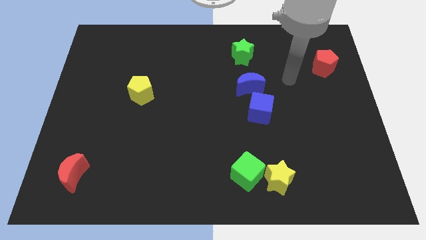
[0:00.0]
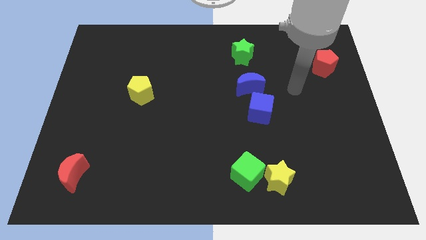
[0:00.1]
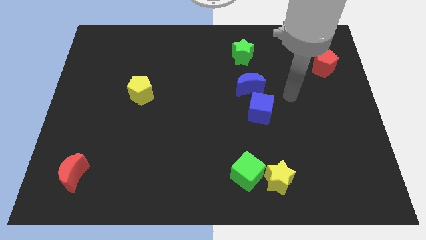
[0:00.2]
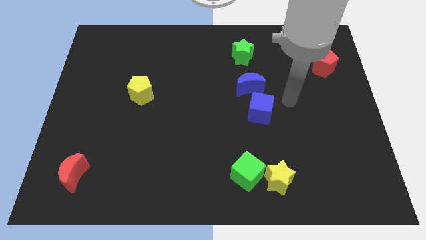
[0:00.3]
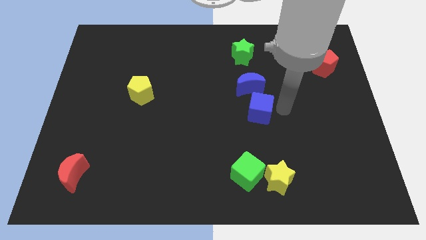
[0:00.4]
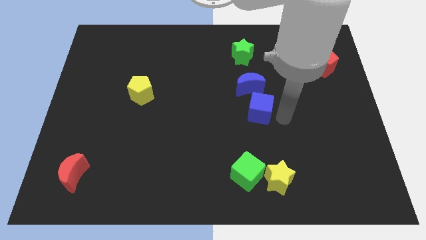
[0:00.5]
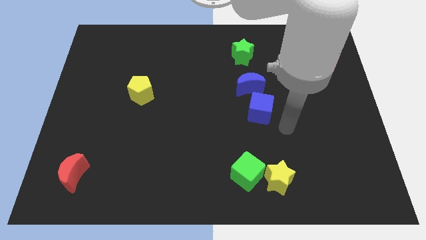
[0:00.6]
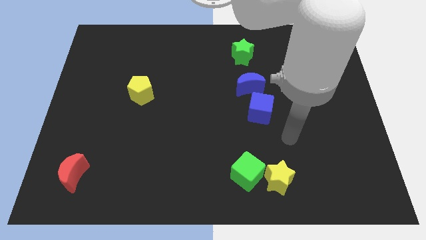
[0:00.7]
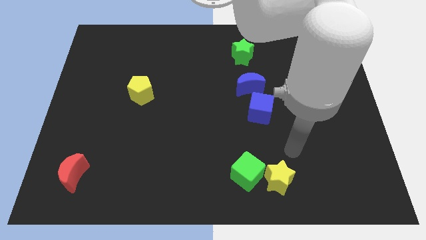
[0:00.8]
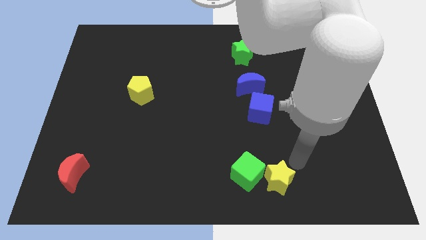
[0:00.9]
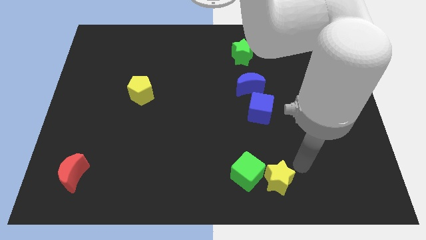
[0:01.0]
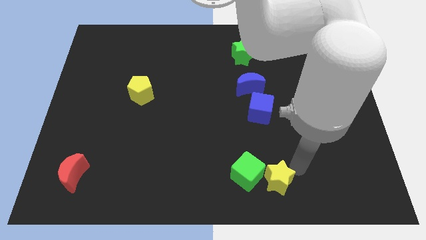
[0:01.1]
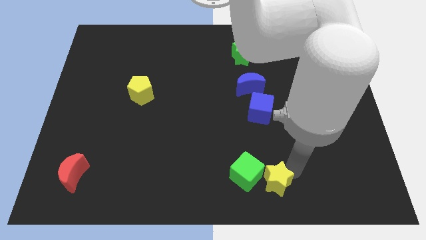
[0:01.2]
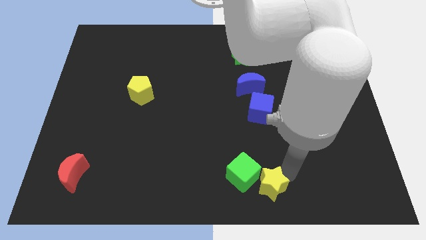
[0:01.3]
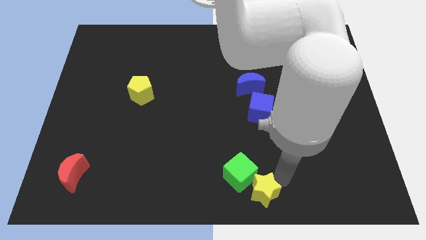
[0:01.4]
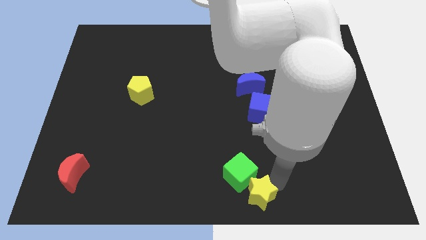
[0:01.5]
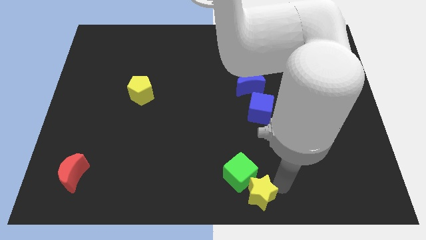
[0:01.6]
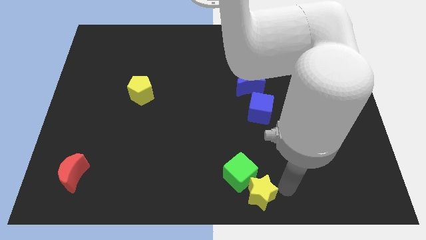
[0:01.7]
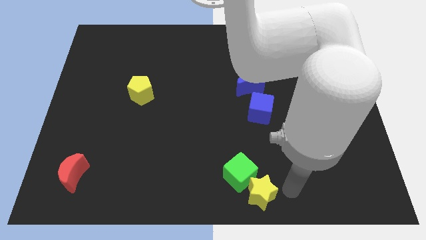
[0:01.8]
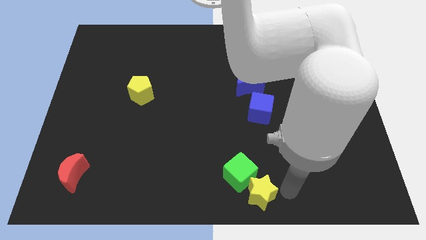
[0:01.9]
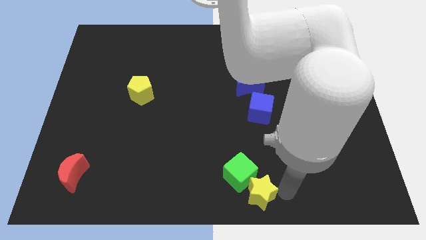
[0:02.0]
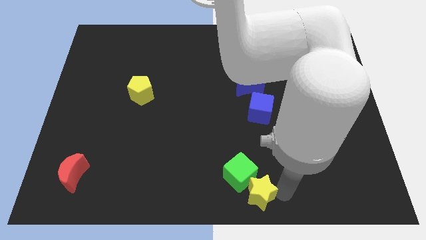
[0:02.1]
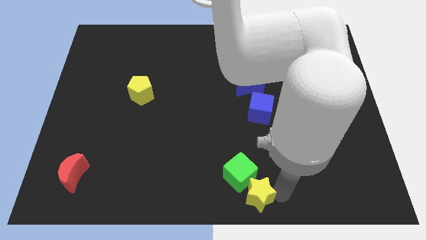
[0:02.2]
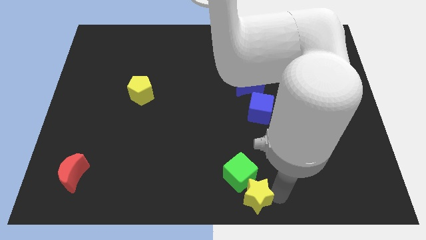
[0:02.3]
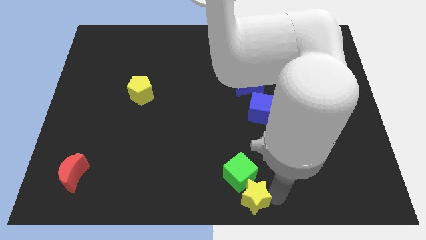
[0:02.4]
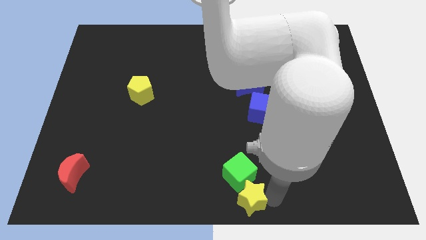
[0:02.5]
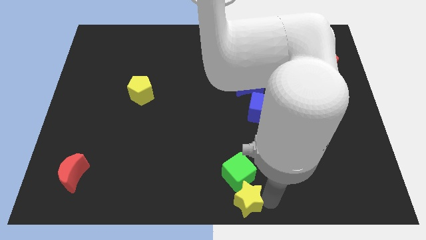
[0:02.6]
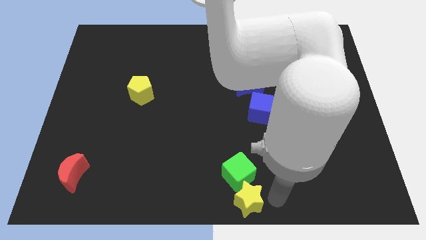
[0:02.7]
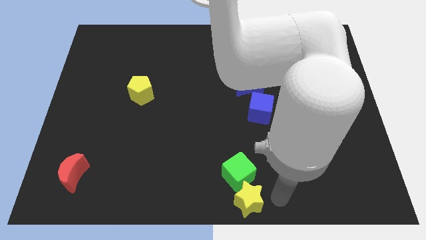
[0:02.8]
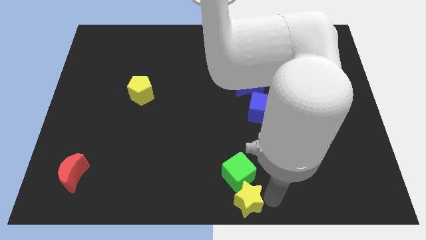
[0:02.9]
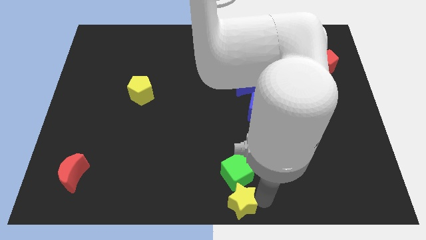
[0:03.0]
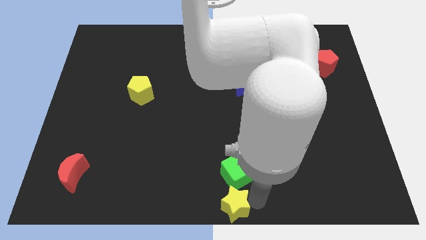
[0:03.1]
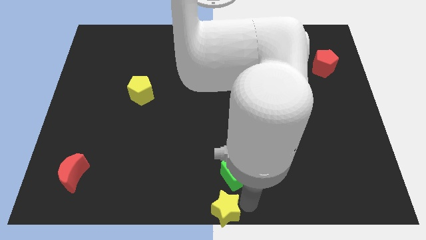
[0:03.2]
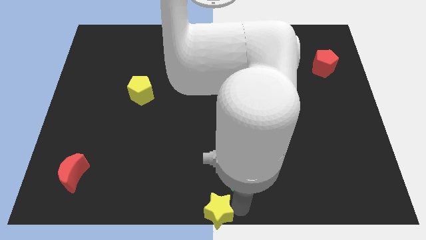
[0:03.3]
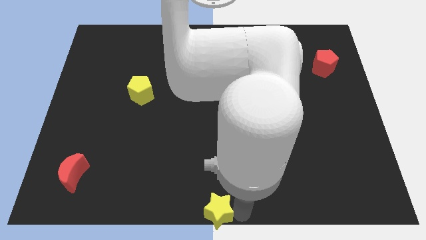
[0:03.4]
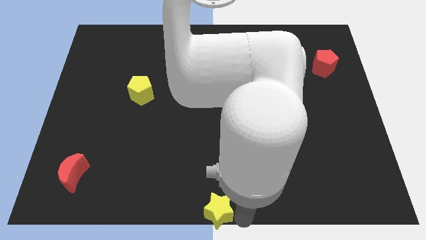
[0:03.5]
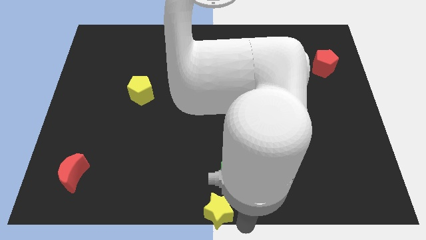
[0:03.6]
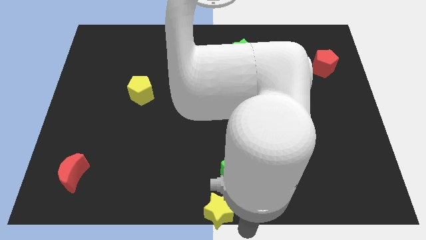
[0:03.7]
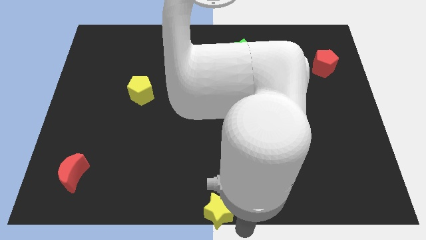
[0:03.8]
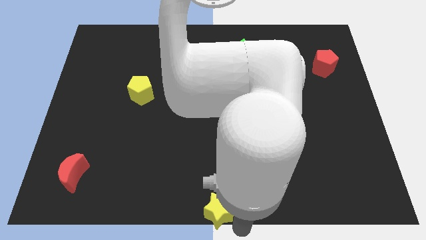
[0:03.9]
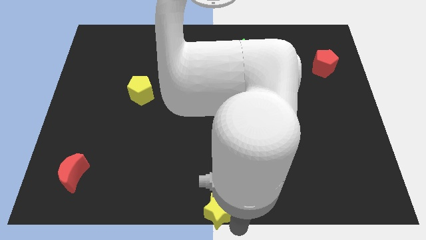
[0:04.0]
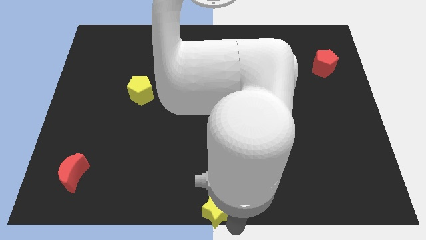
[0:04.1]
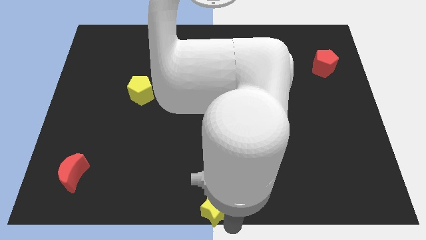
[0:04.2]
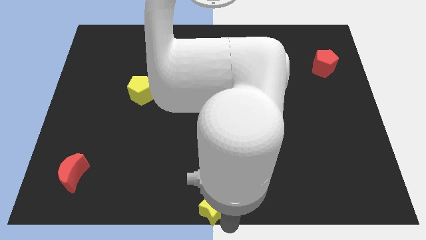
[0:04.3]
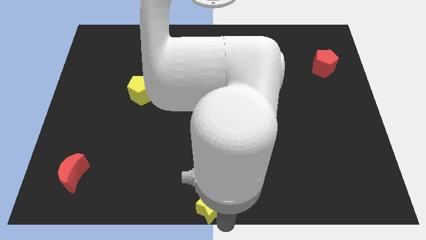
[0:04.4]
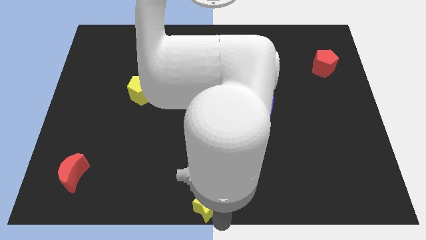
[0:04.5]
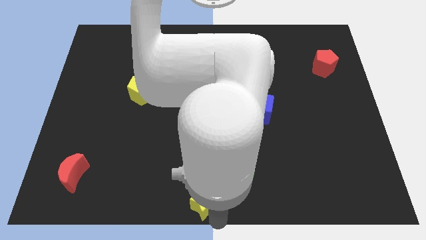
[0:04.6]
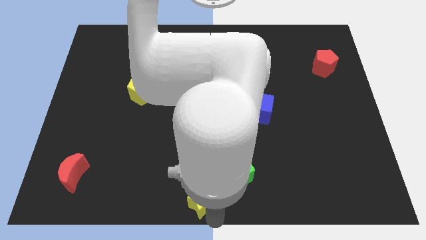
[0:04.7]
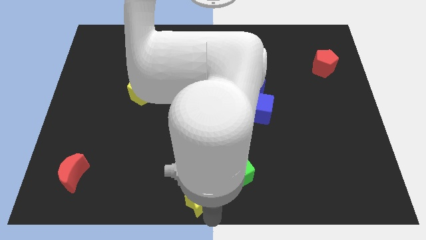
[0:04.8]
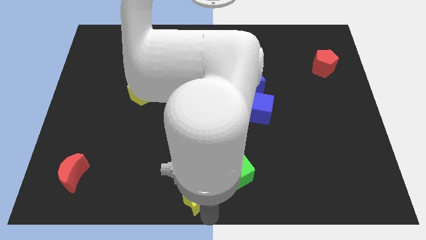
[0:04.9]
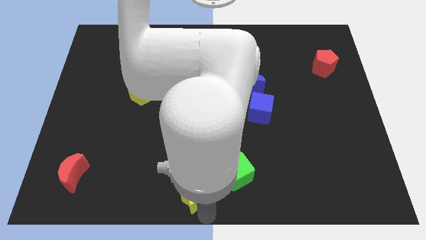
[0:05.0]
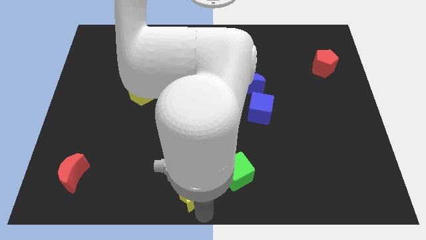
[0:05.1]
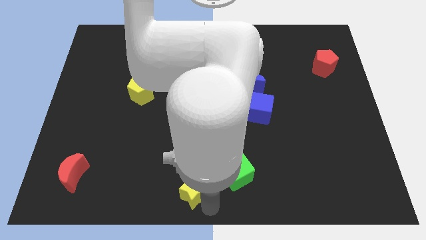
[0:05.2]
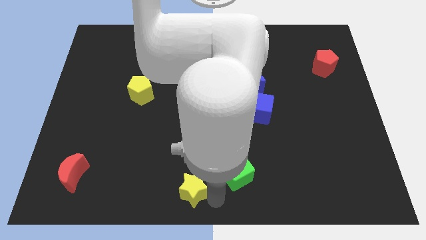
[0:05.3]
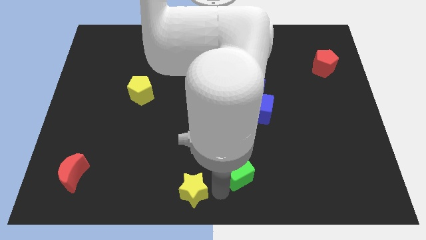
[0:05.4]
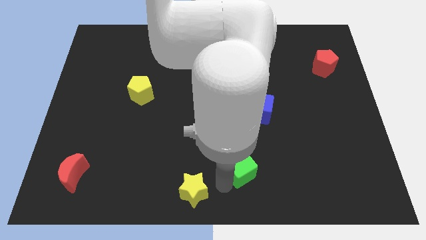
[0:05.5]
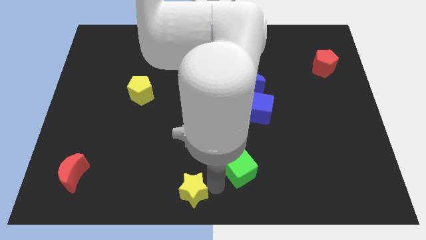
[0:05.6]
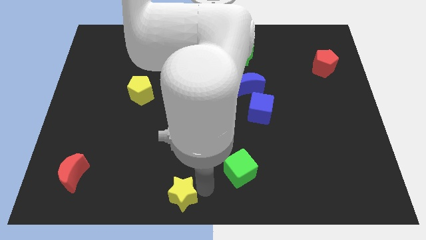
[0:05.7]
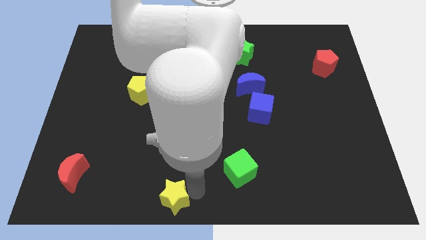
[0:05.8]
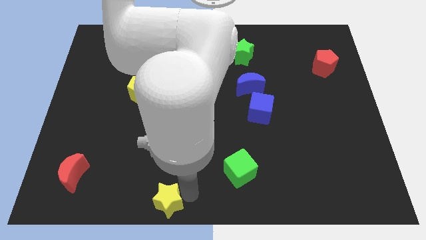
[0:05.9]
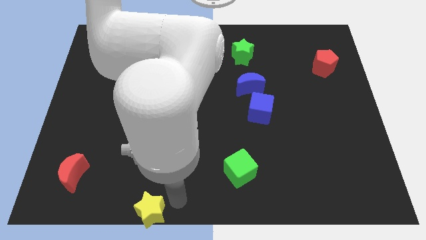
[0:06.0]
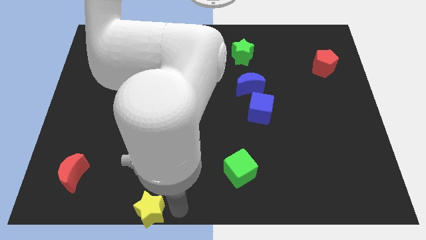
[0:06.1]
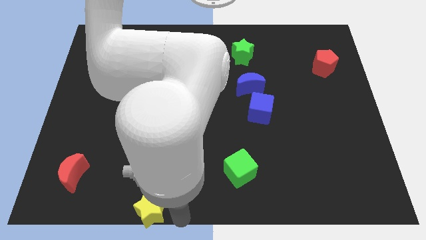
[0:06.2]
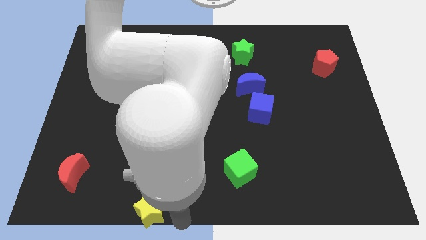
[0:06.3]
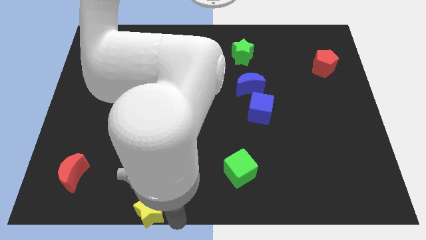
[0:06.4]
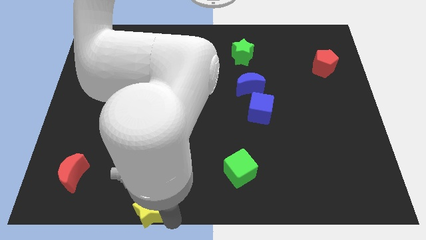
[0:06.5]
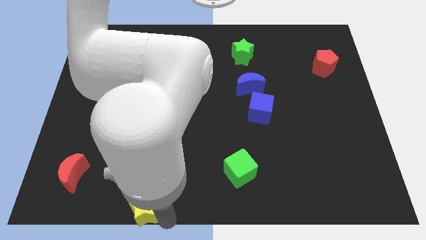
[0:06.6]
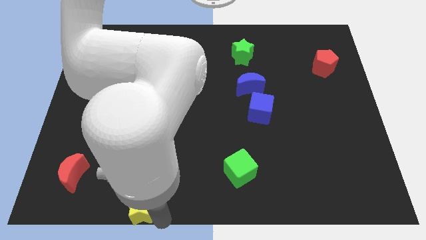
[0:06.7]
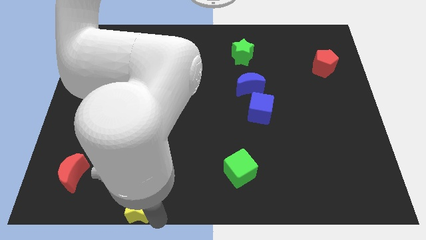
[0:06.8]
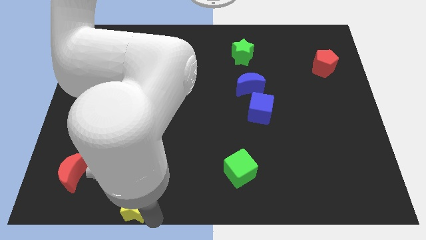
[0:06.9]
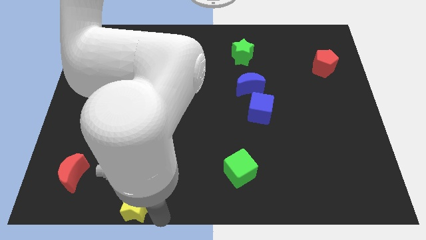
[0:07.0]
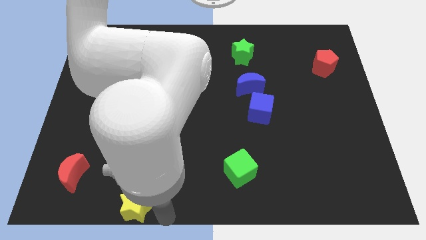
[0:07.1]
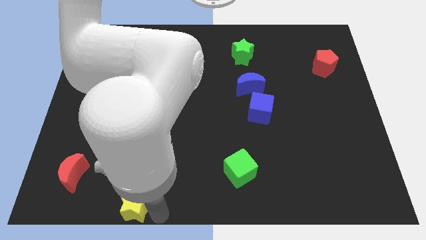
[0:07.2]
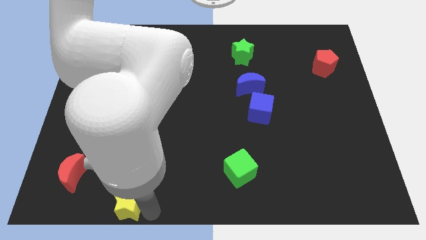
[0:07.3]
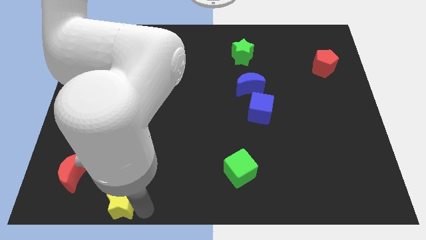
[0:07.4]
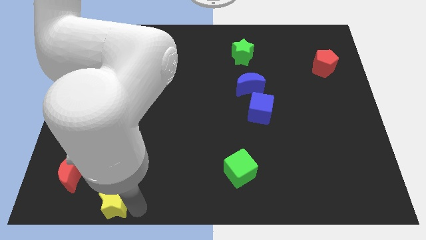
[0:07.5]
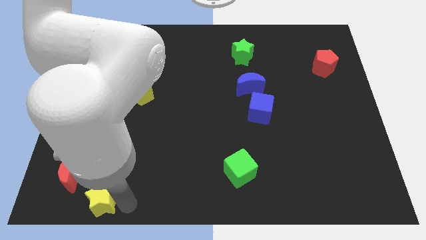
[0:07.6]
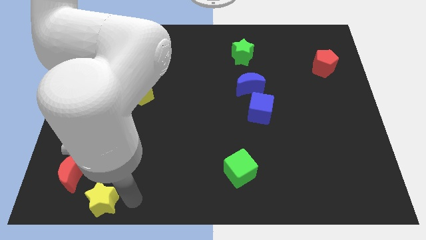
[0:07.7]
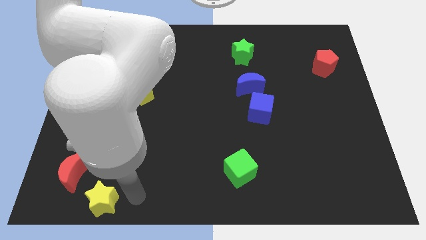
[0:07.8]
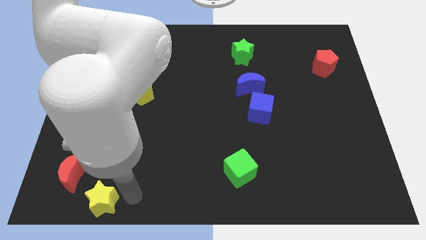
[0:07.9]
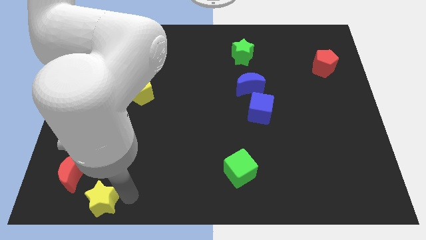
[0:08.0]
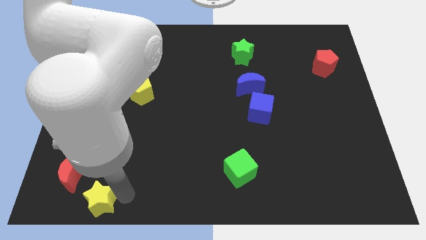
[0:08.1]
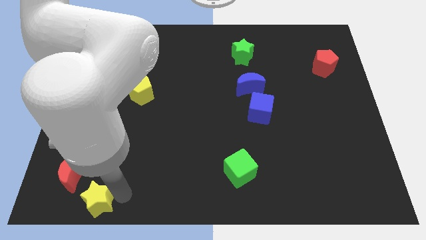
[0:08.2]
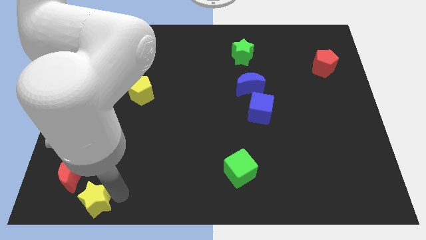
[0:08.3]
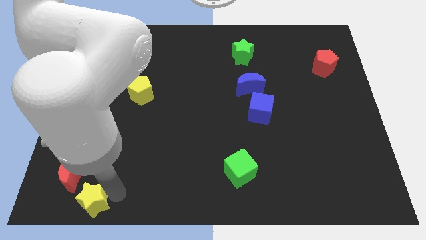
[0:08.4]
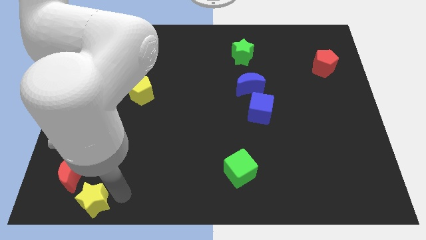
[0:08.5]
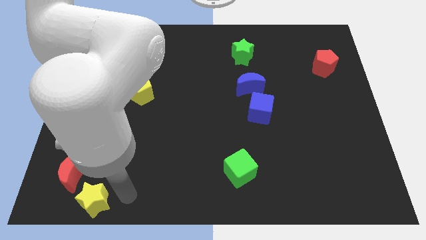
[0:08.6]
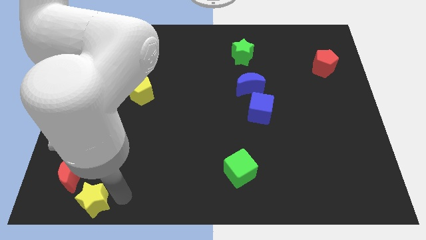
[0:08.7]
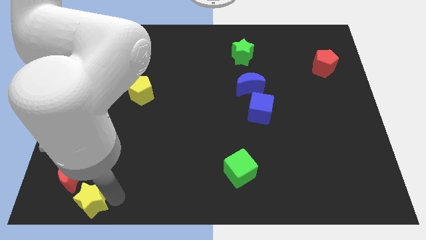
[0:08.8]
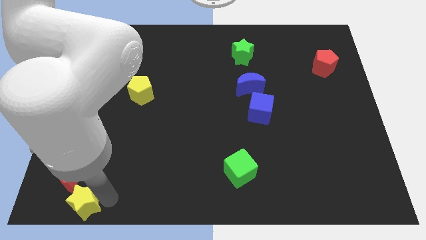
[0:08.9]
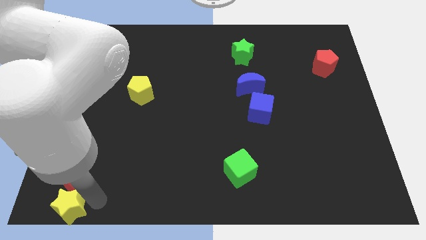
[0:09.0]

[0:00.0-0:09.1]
move the yellow star to the bottom left corner
